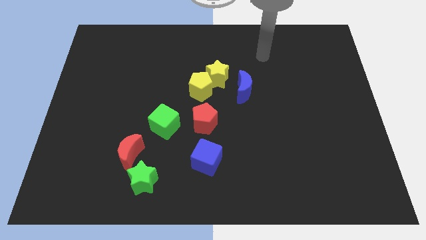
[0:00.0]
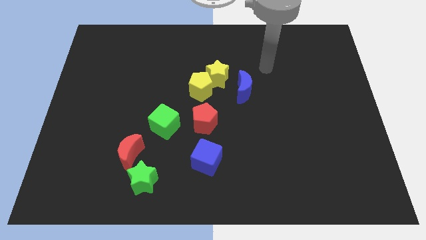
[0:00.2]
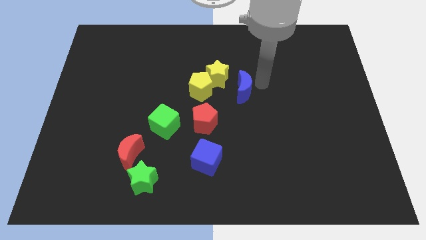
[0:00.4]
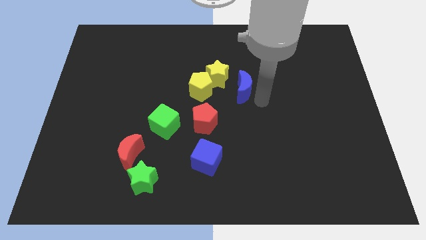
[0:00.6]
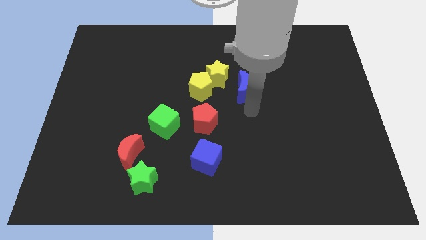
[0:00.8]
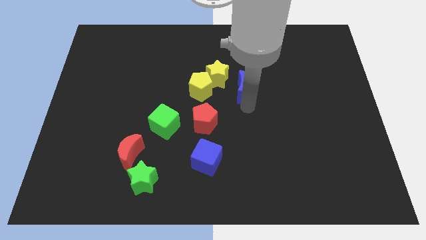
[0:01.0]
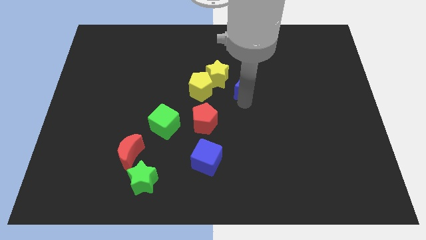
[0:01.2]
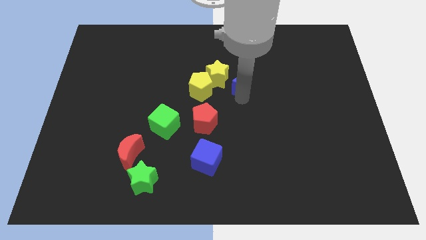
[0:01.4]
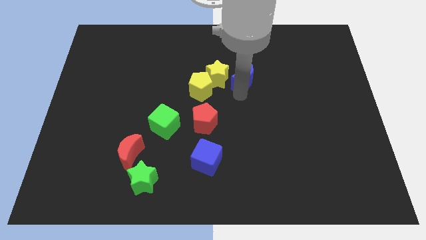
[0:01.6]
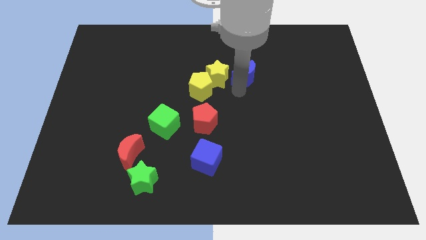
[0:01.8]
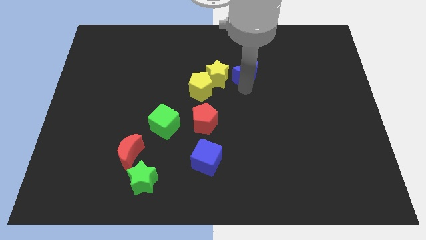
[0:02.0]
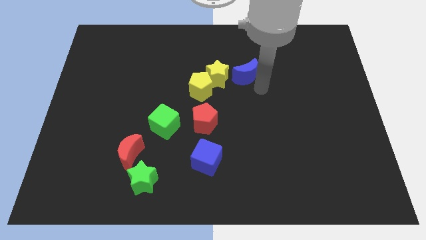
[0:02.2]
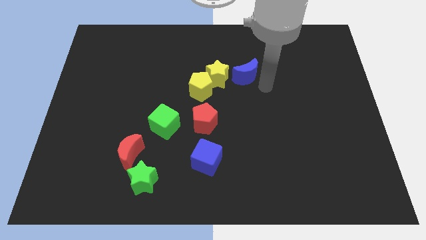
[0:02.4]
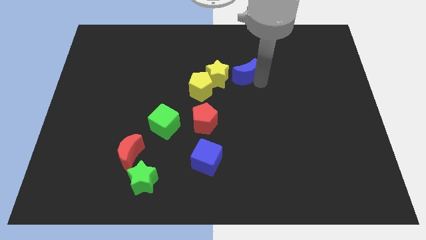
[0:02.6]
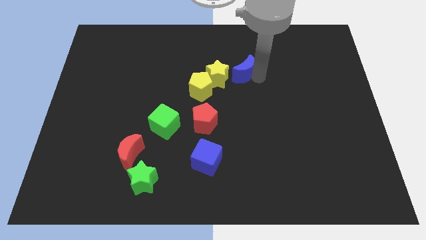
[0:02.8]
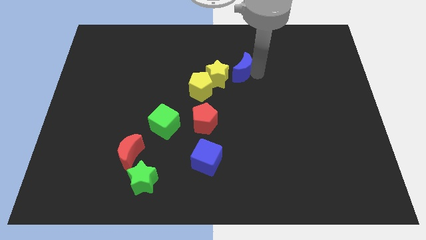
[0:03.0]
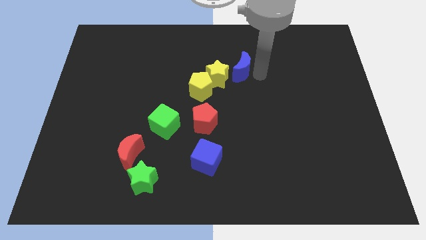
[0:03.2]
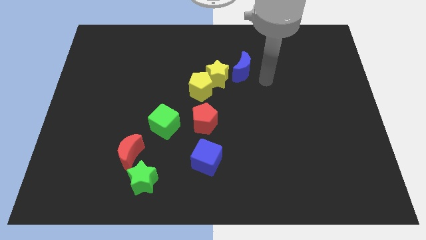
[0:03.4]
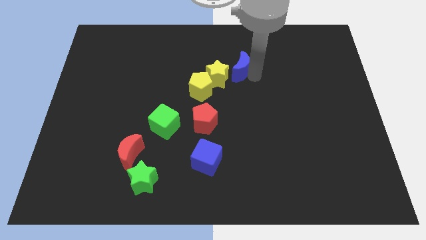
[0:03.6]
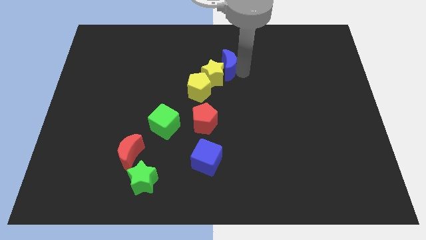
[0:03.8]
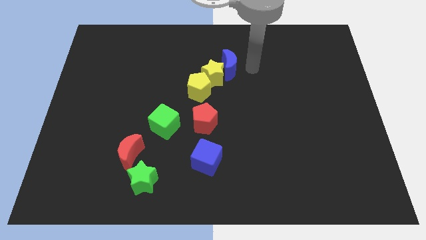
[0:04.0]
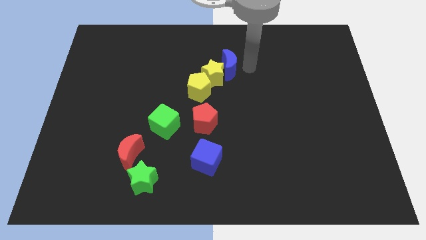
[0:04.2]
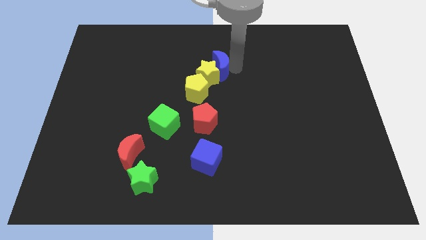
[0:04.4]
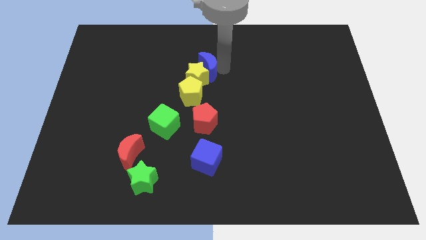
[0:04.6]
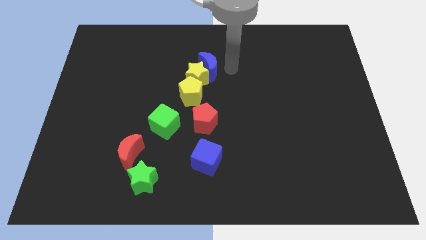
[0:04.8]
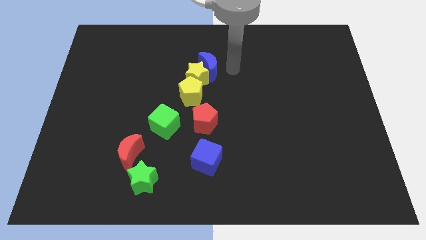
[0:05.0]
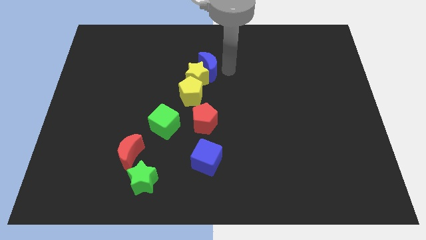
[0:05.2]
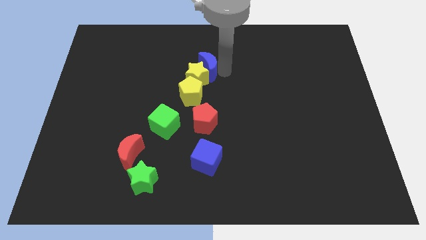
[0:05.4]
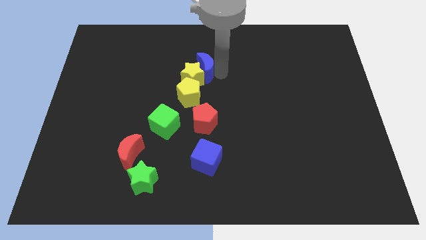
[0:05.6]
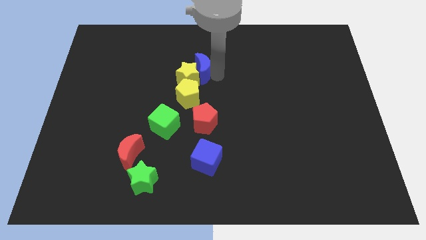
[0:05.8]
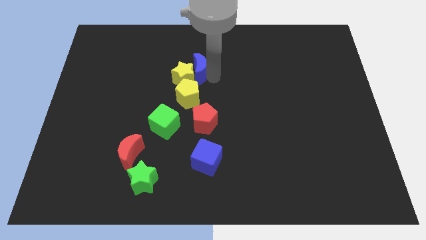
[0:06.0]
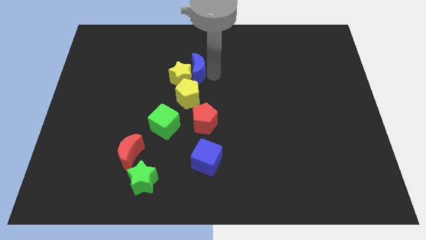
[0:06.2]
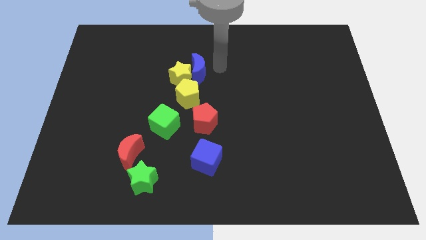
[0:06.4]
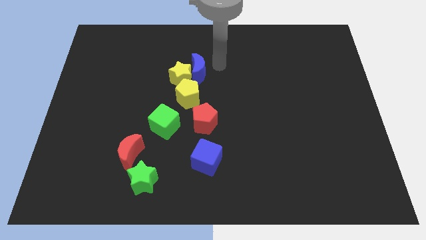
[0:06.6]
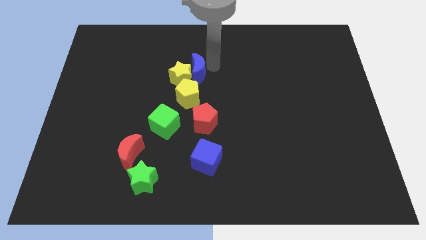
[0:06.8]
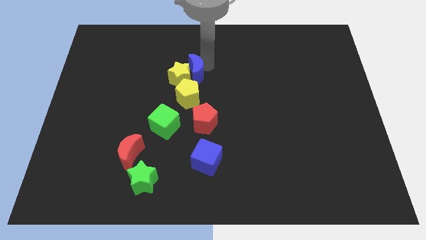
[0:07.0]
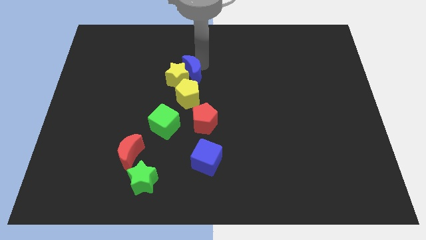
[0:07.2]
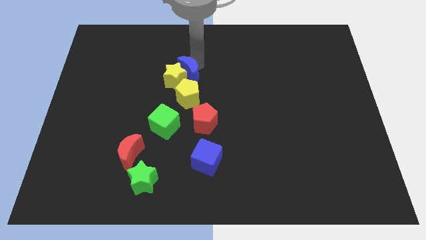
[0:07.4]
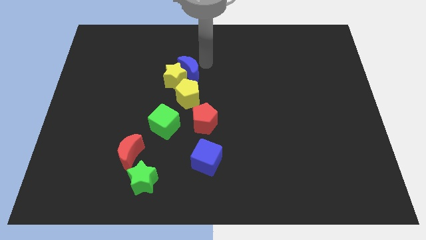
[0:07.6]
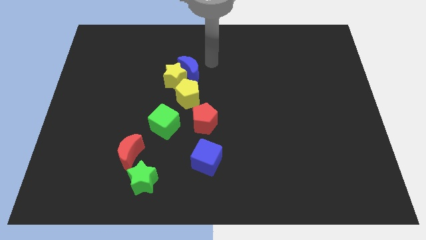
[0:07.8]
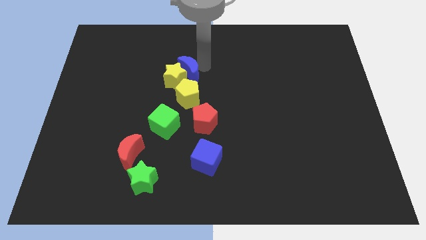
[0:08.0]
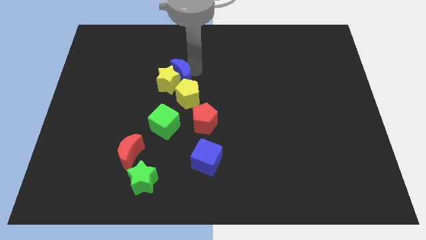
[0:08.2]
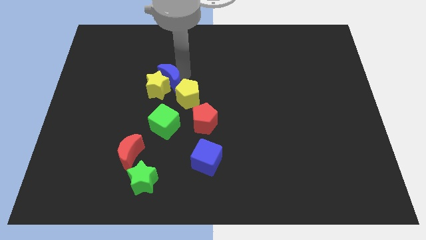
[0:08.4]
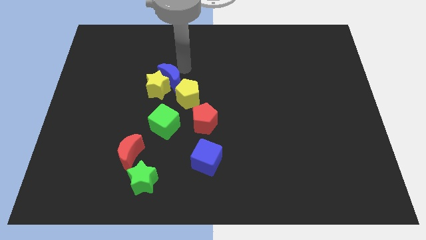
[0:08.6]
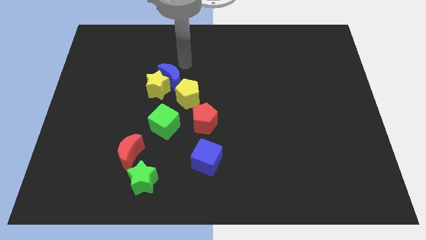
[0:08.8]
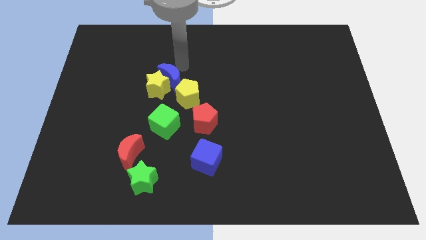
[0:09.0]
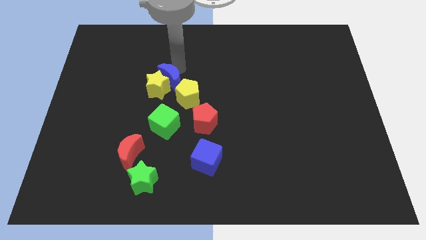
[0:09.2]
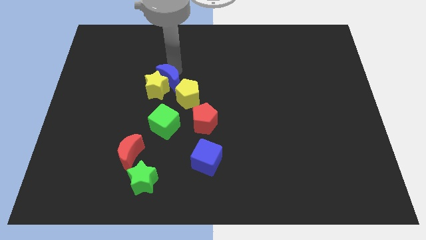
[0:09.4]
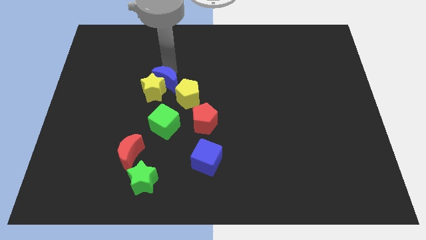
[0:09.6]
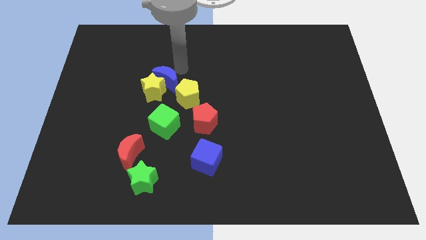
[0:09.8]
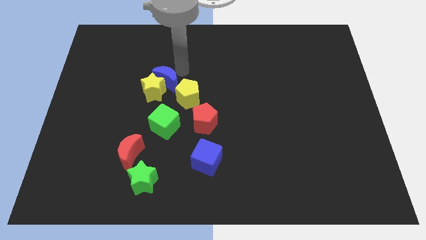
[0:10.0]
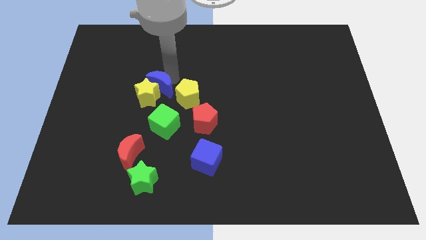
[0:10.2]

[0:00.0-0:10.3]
slide the blue moon to the left

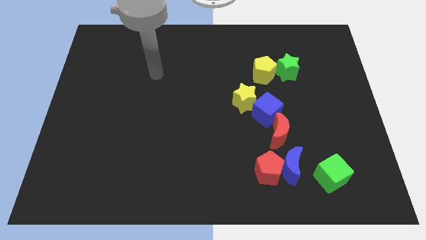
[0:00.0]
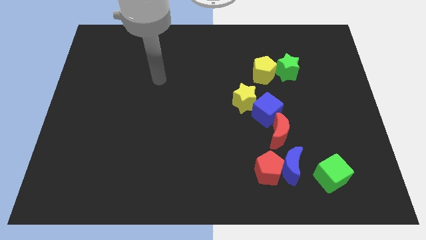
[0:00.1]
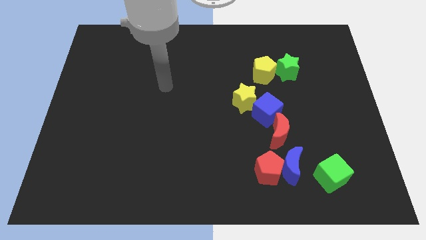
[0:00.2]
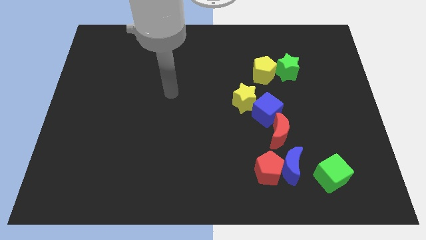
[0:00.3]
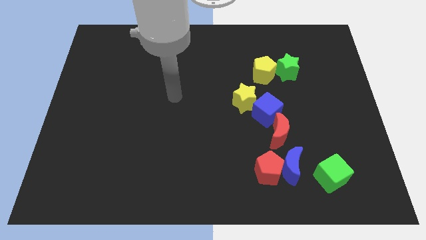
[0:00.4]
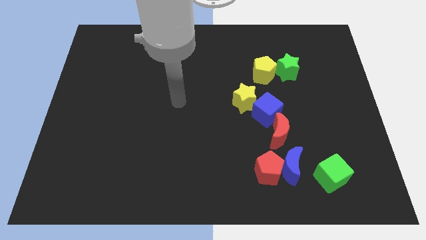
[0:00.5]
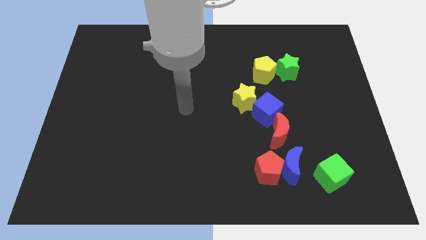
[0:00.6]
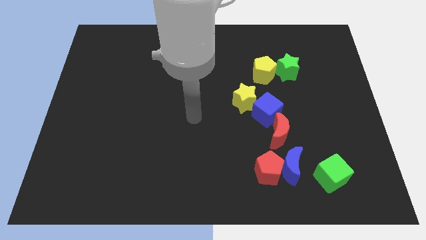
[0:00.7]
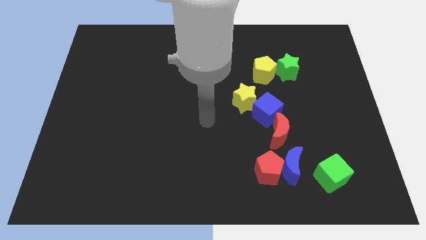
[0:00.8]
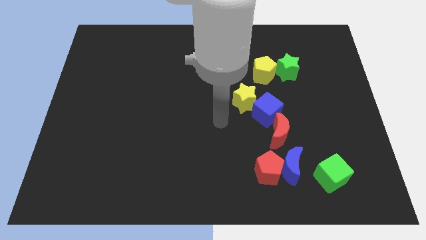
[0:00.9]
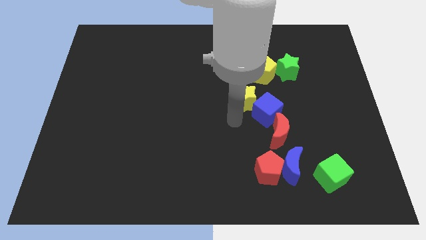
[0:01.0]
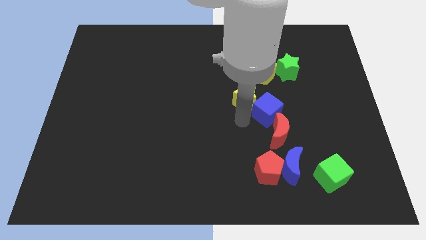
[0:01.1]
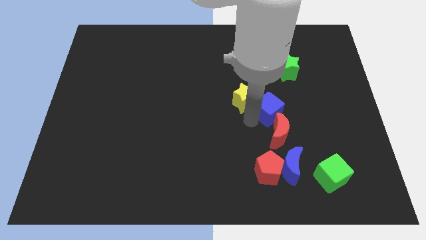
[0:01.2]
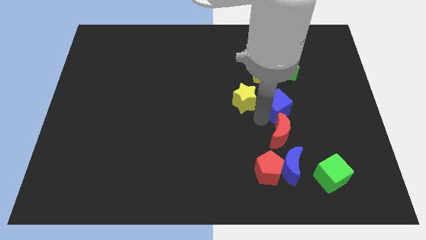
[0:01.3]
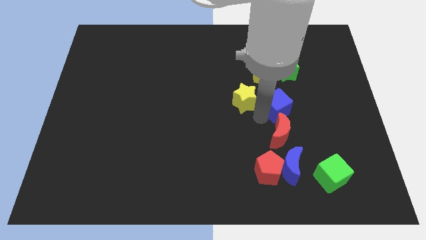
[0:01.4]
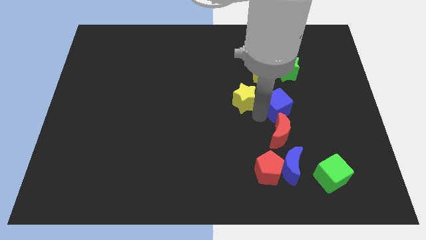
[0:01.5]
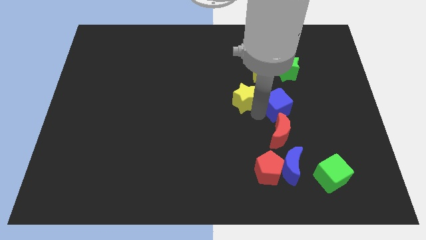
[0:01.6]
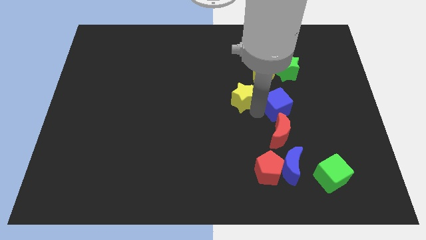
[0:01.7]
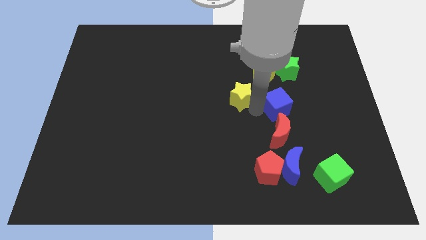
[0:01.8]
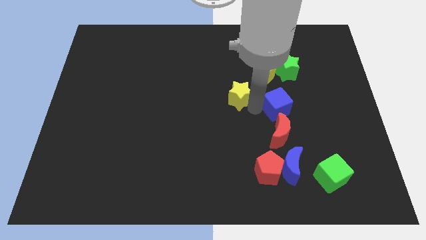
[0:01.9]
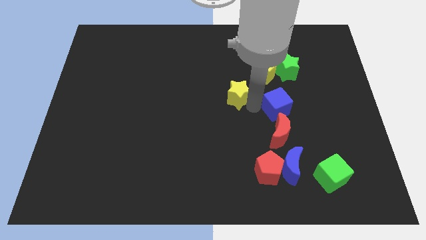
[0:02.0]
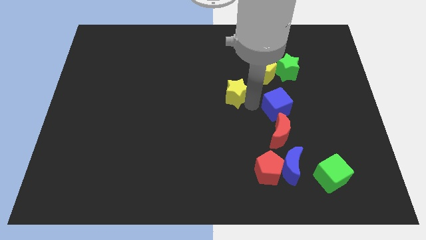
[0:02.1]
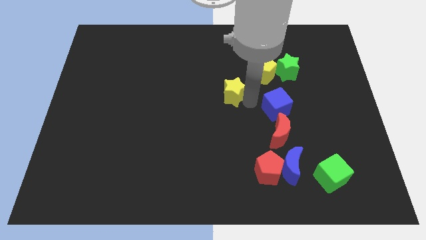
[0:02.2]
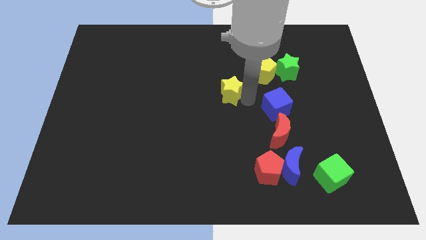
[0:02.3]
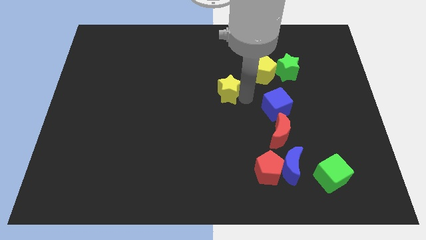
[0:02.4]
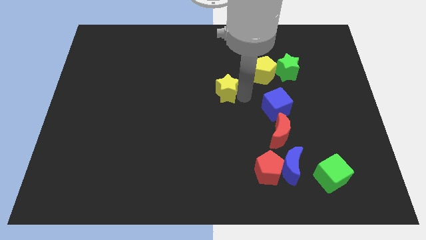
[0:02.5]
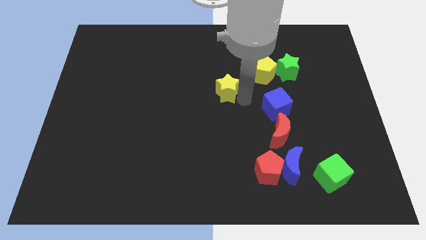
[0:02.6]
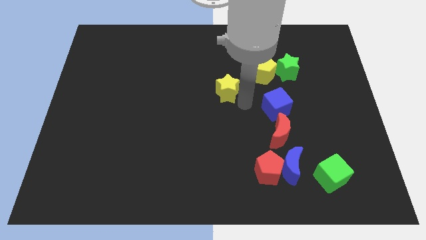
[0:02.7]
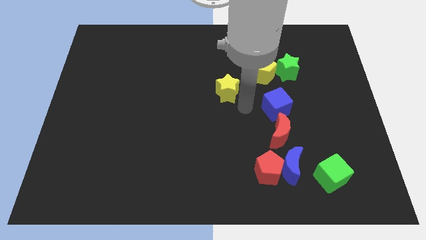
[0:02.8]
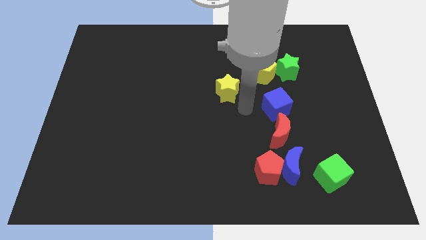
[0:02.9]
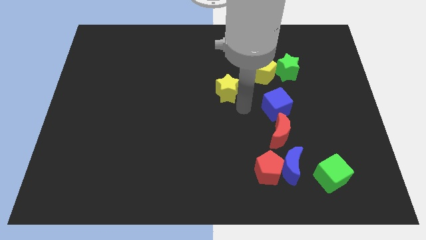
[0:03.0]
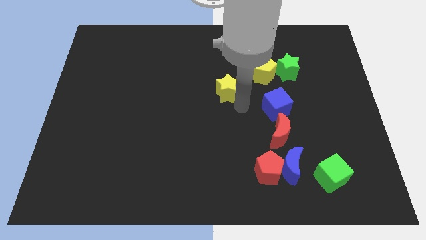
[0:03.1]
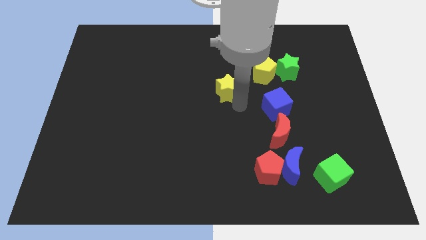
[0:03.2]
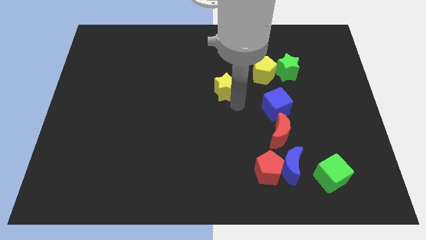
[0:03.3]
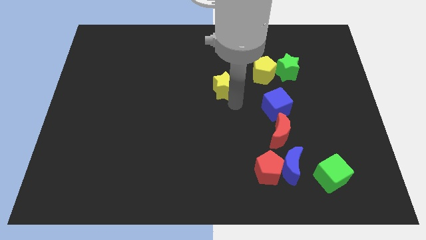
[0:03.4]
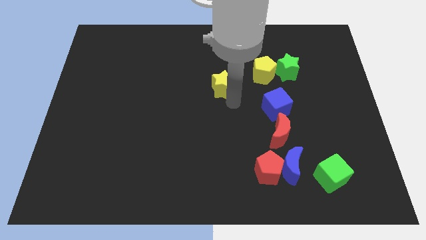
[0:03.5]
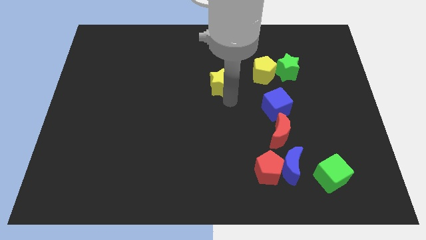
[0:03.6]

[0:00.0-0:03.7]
push the yellow star up and to the left diagonally a little
